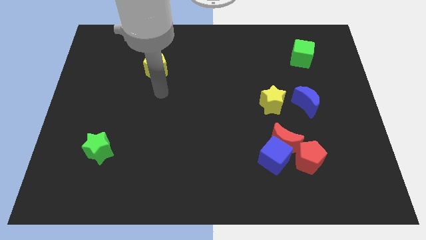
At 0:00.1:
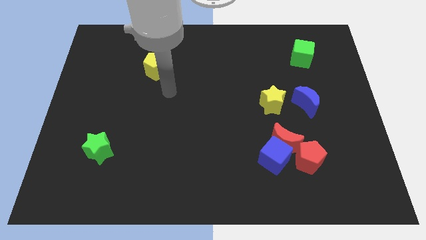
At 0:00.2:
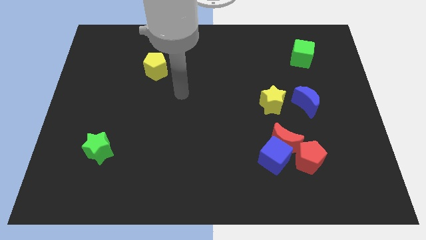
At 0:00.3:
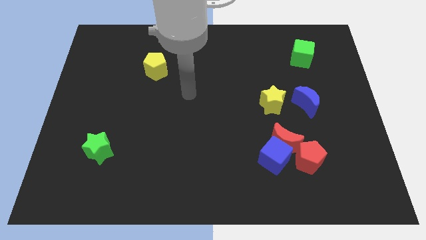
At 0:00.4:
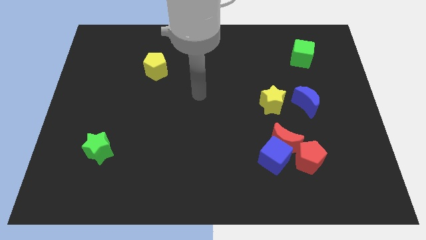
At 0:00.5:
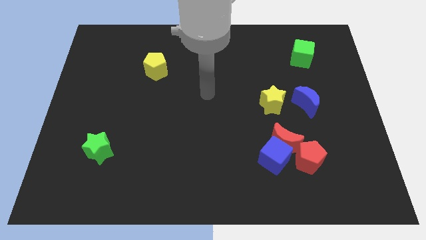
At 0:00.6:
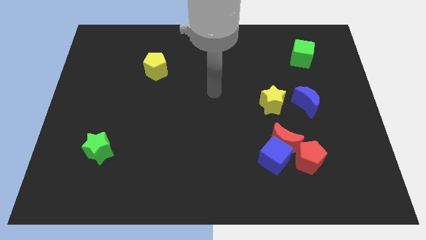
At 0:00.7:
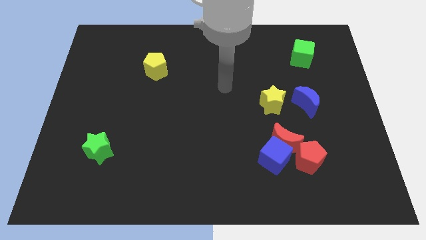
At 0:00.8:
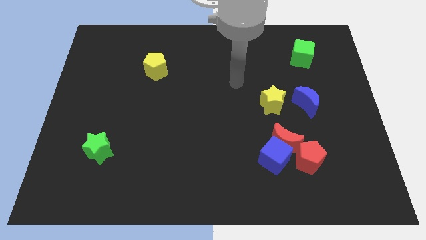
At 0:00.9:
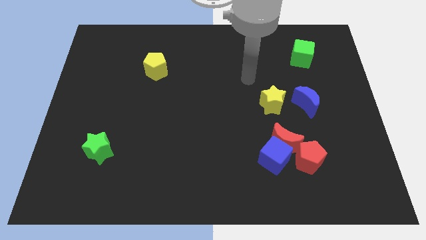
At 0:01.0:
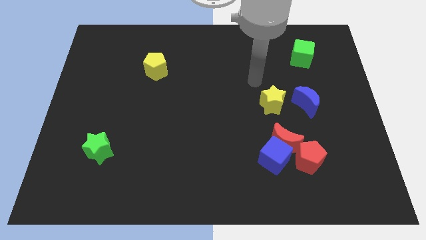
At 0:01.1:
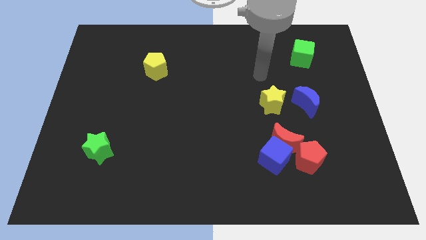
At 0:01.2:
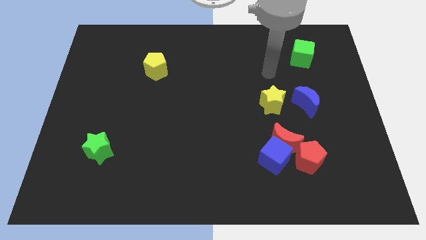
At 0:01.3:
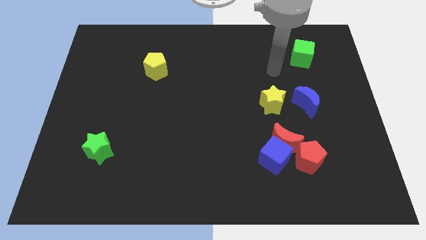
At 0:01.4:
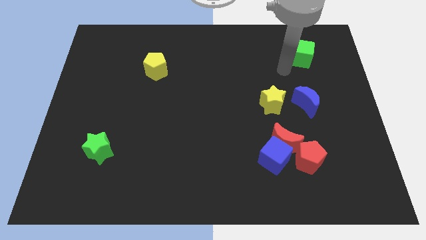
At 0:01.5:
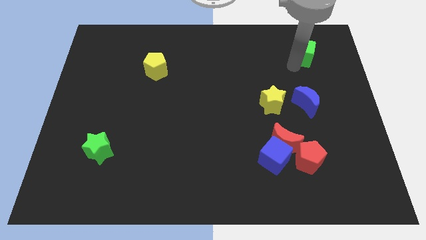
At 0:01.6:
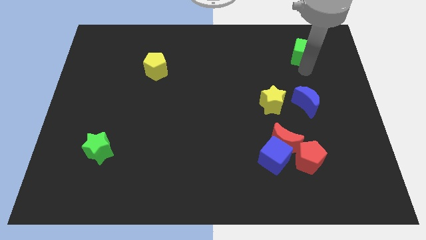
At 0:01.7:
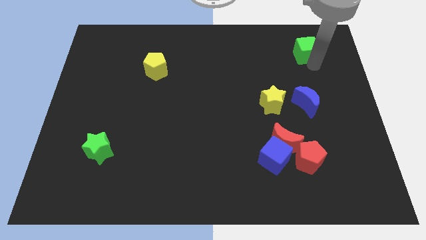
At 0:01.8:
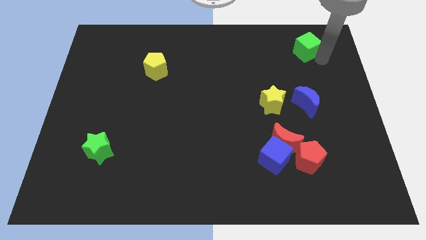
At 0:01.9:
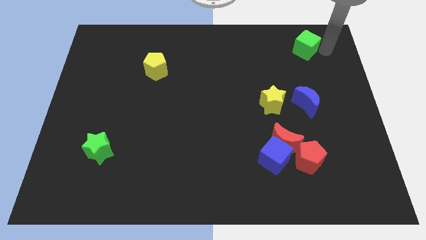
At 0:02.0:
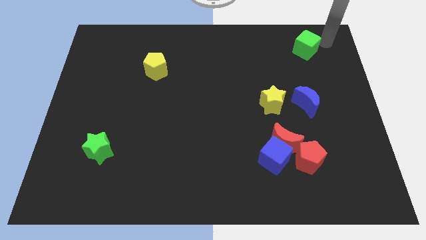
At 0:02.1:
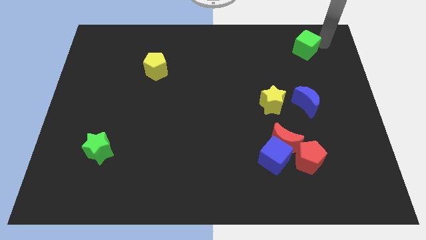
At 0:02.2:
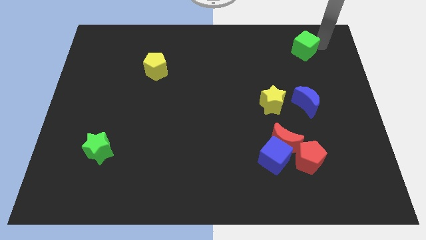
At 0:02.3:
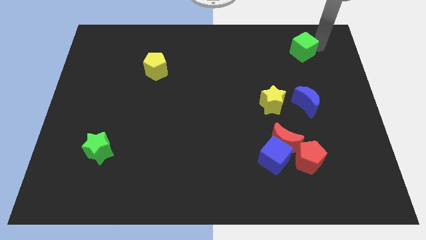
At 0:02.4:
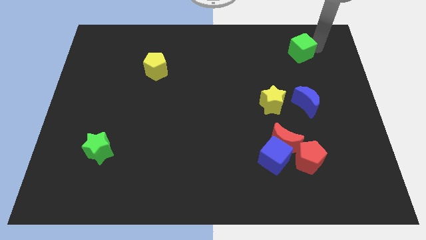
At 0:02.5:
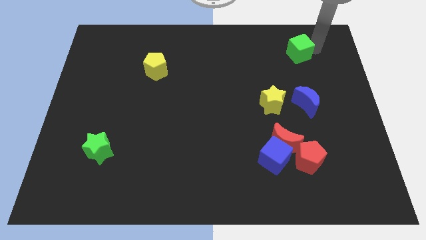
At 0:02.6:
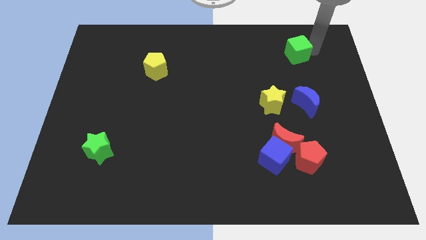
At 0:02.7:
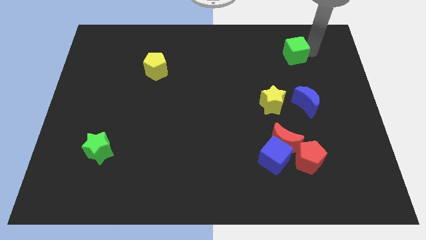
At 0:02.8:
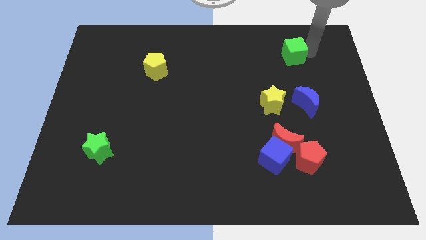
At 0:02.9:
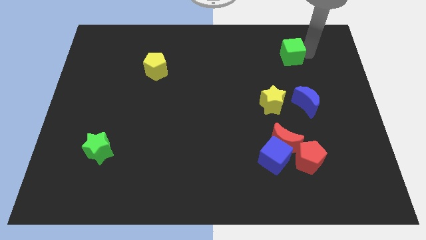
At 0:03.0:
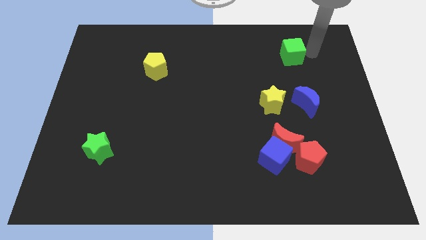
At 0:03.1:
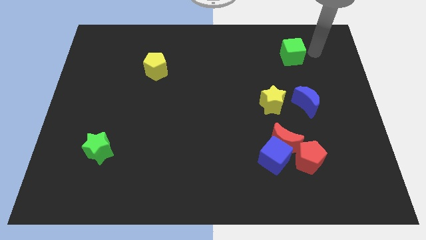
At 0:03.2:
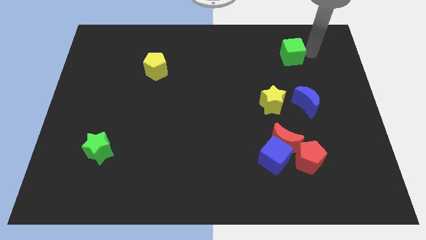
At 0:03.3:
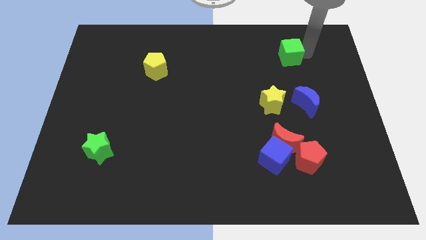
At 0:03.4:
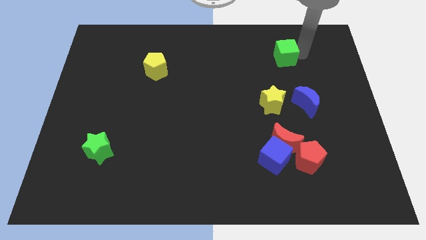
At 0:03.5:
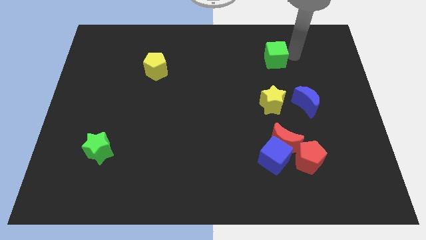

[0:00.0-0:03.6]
slightly move the green cube left

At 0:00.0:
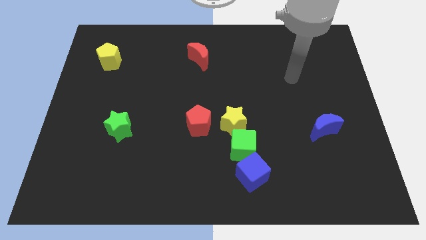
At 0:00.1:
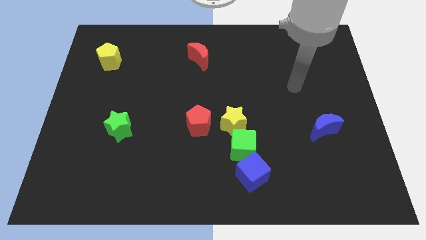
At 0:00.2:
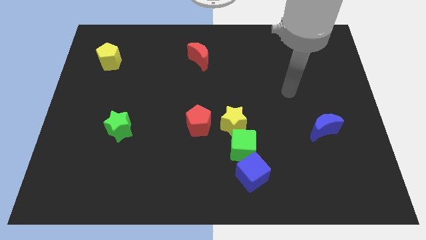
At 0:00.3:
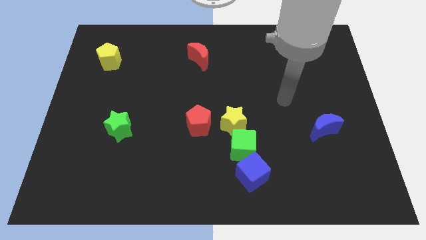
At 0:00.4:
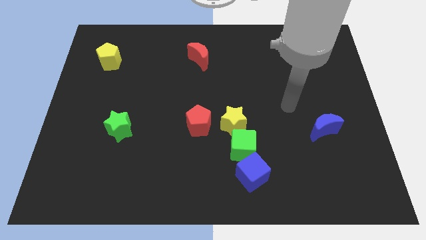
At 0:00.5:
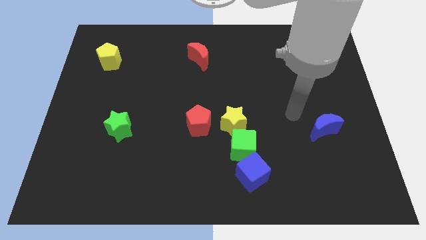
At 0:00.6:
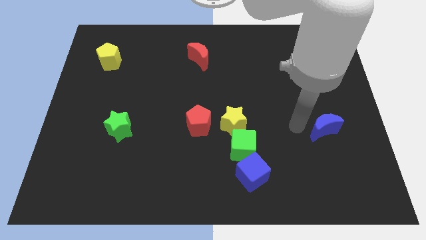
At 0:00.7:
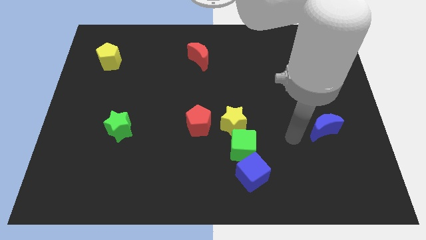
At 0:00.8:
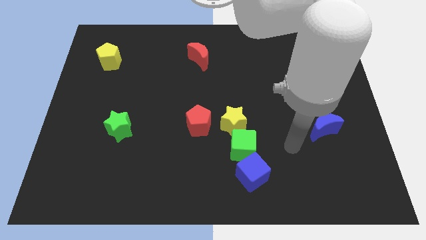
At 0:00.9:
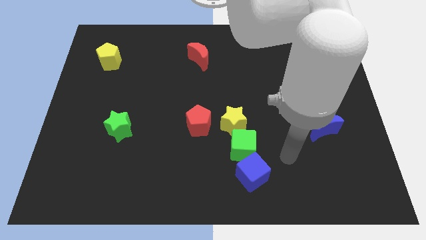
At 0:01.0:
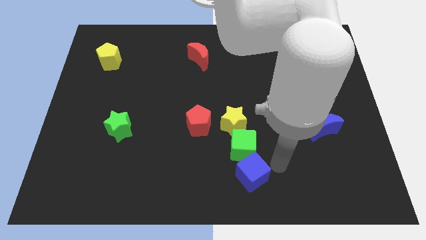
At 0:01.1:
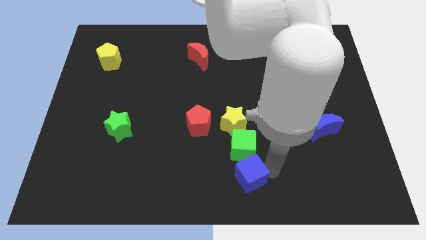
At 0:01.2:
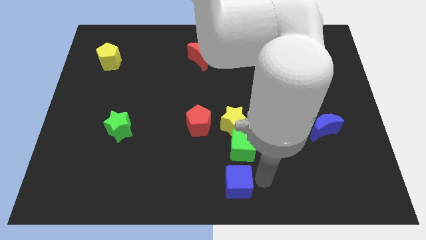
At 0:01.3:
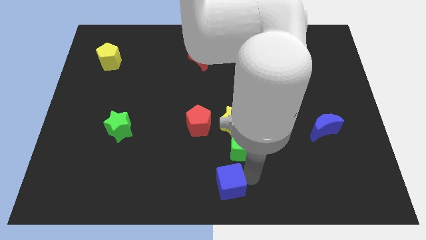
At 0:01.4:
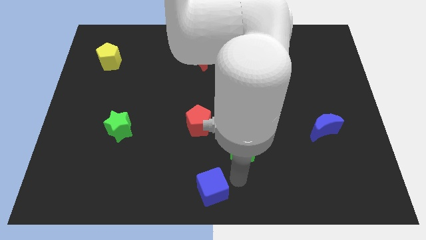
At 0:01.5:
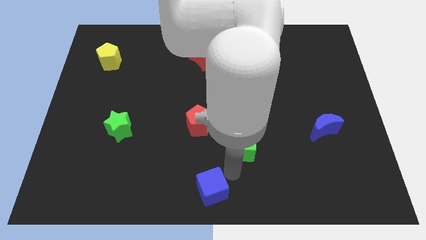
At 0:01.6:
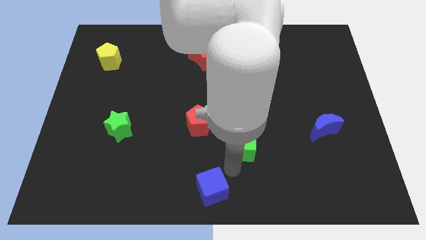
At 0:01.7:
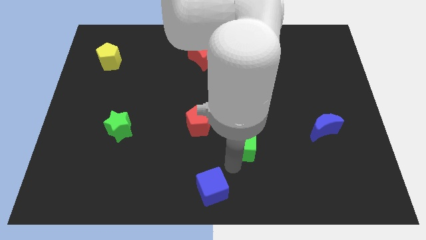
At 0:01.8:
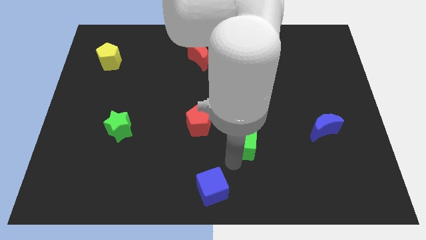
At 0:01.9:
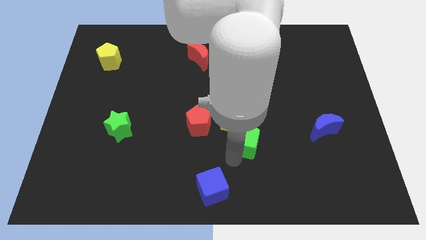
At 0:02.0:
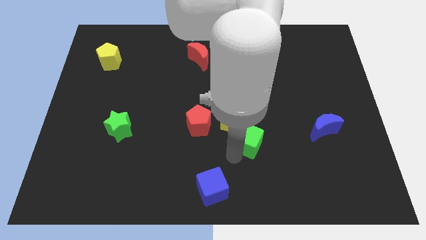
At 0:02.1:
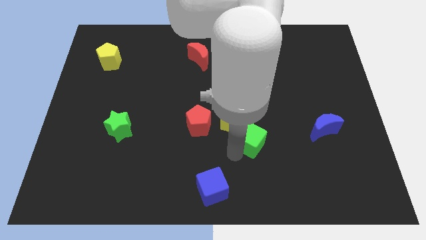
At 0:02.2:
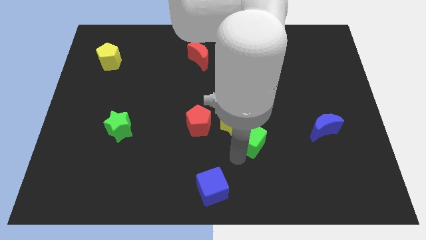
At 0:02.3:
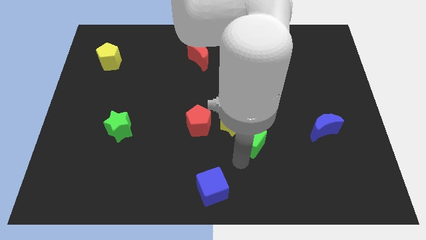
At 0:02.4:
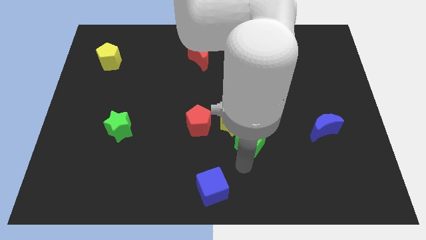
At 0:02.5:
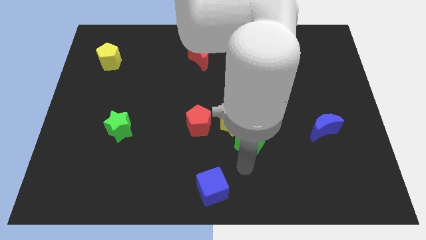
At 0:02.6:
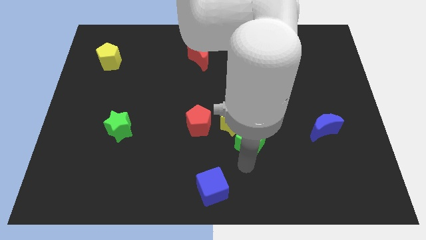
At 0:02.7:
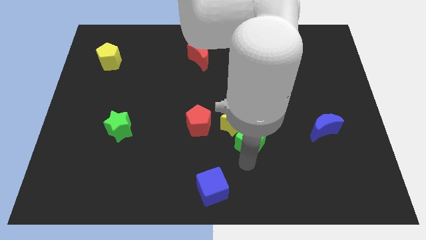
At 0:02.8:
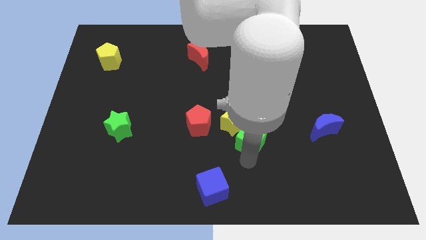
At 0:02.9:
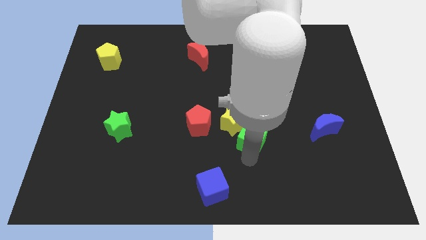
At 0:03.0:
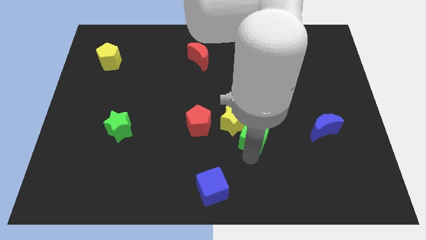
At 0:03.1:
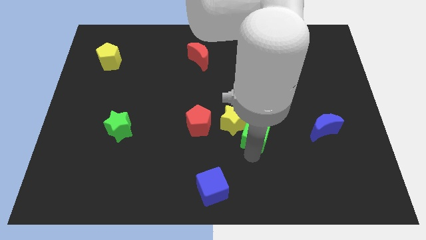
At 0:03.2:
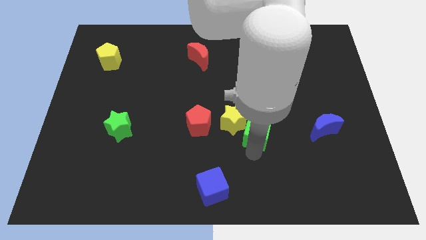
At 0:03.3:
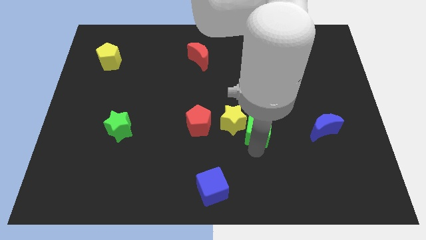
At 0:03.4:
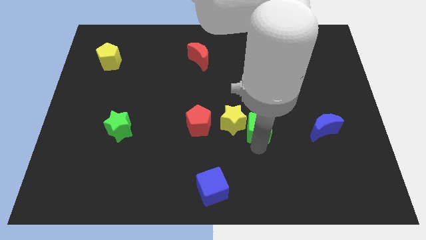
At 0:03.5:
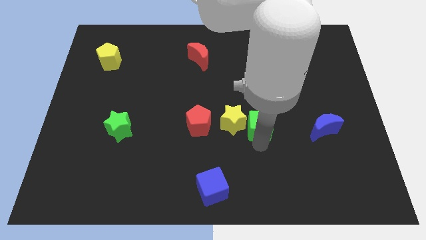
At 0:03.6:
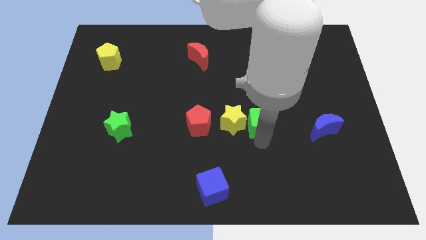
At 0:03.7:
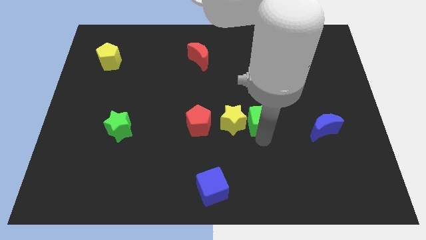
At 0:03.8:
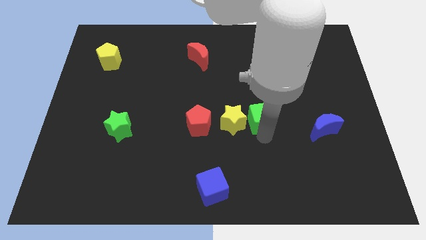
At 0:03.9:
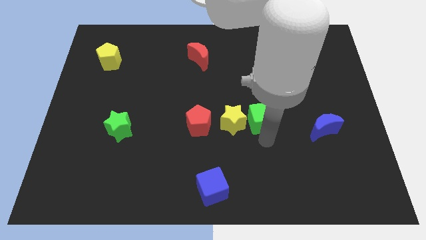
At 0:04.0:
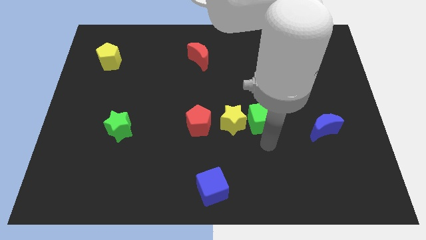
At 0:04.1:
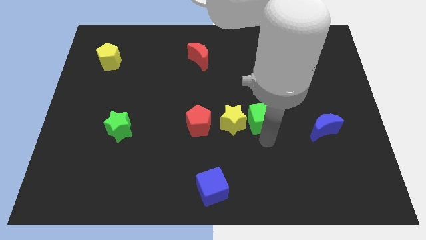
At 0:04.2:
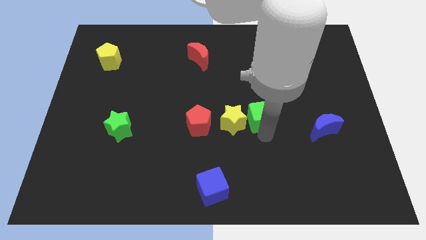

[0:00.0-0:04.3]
slightly move the green cube up

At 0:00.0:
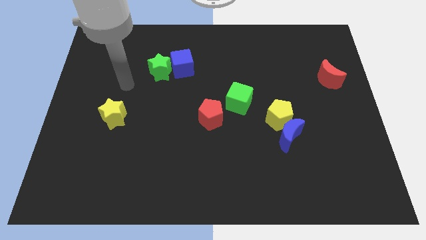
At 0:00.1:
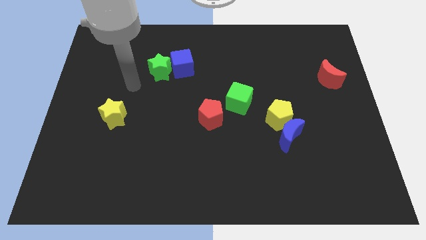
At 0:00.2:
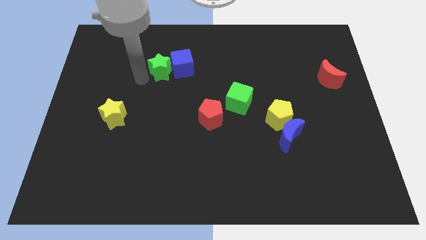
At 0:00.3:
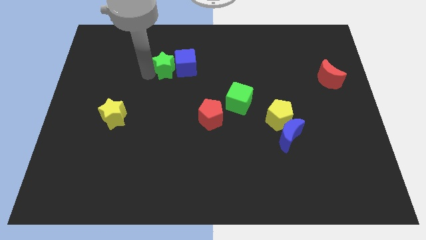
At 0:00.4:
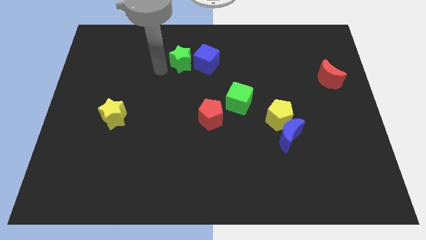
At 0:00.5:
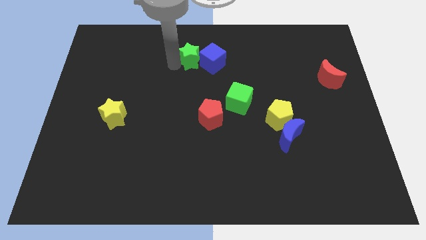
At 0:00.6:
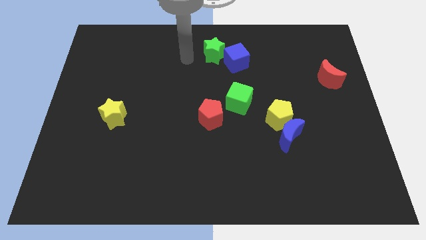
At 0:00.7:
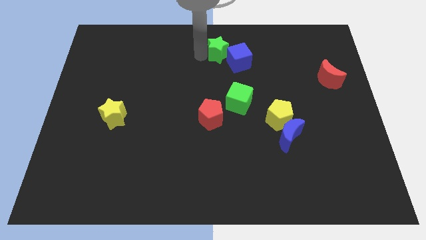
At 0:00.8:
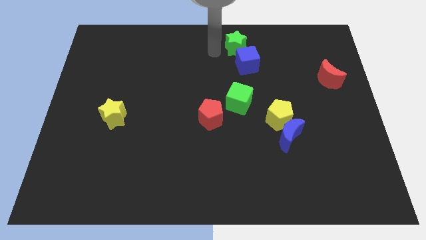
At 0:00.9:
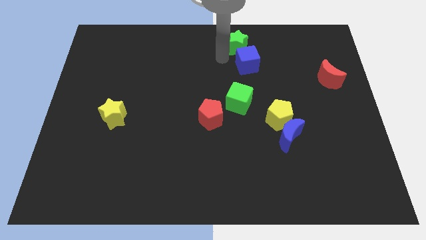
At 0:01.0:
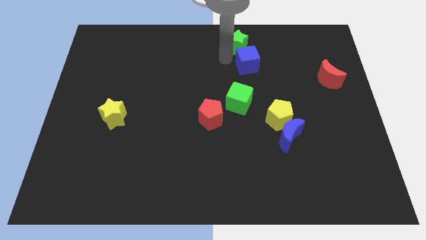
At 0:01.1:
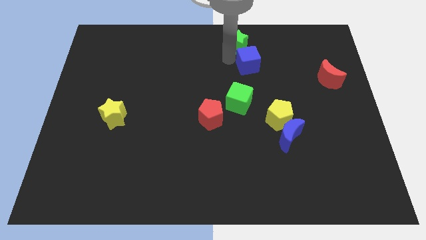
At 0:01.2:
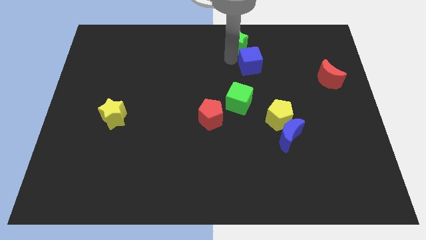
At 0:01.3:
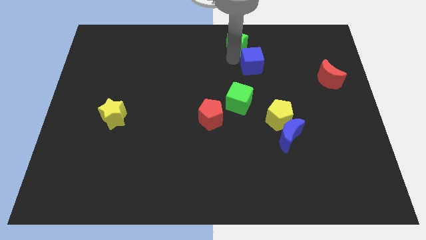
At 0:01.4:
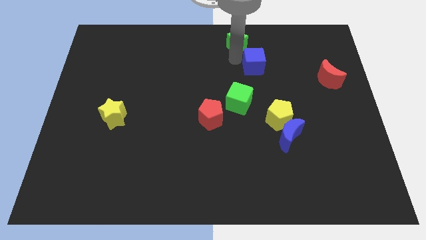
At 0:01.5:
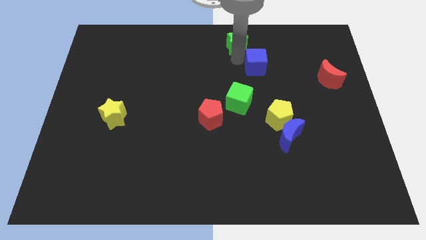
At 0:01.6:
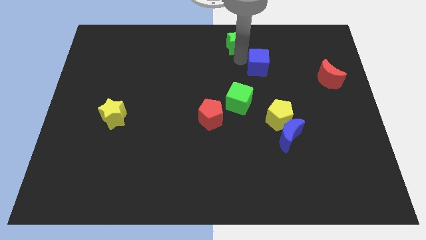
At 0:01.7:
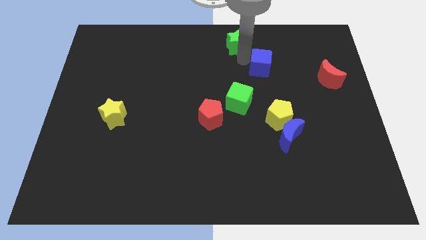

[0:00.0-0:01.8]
move the blue cube right
